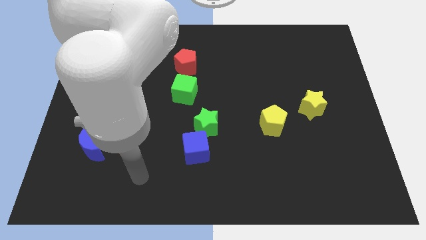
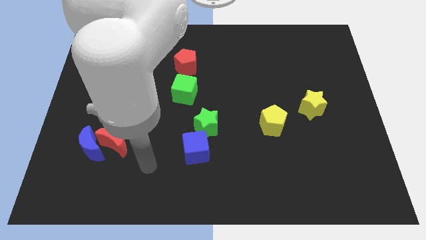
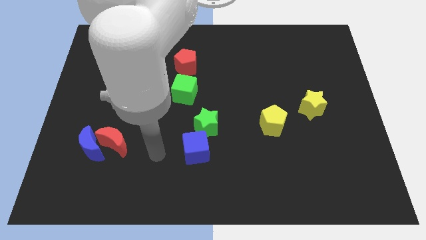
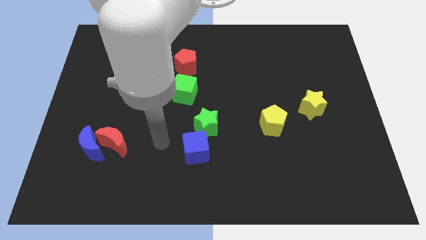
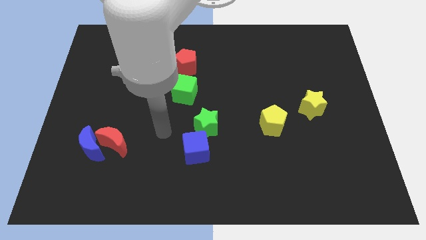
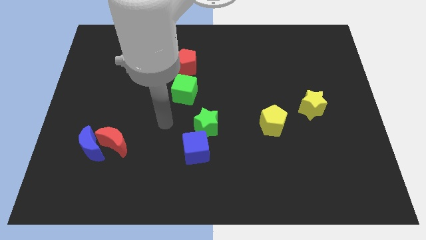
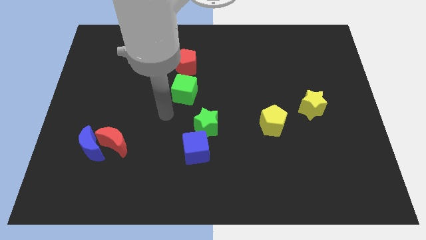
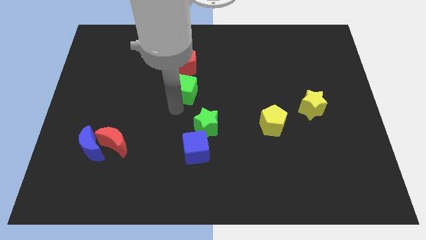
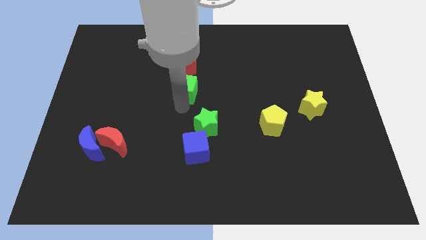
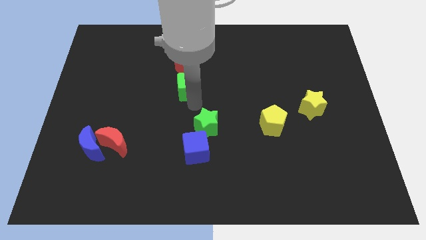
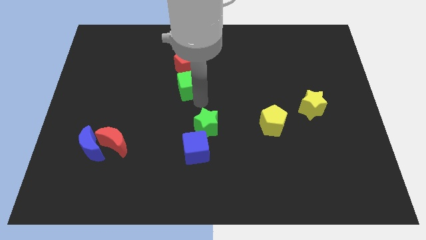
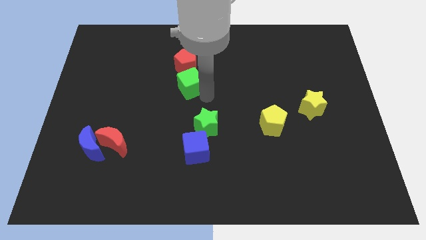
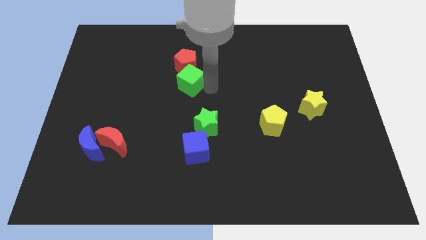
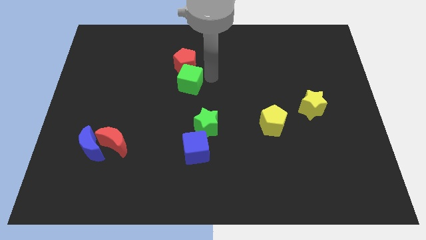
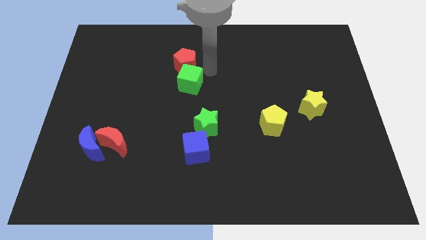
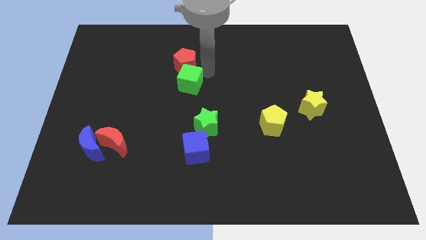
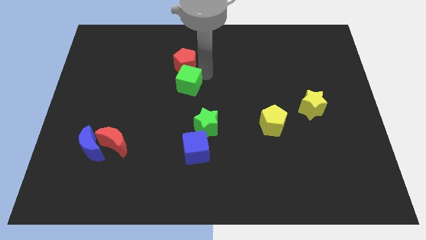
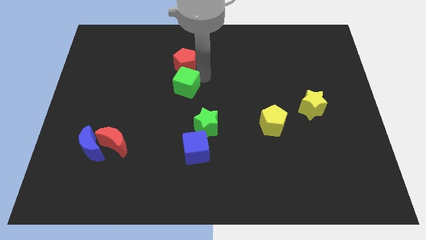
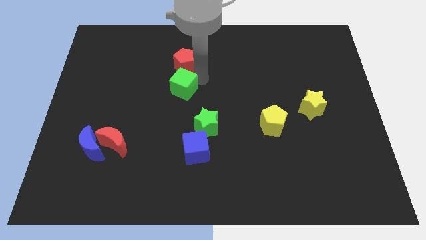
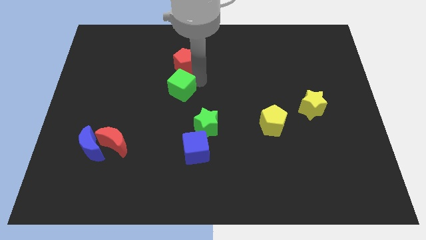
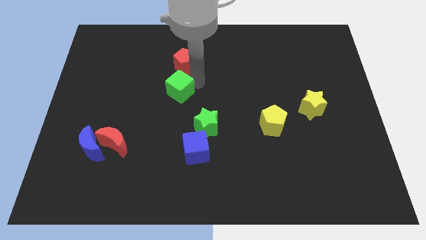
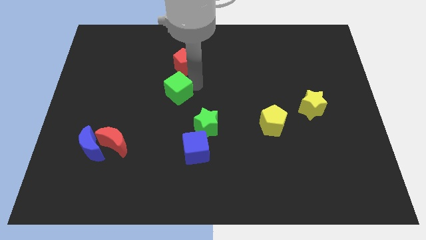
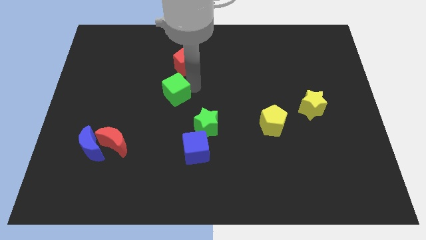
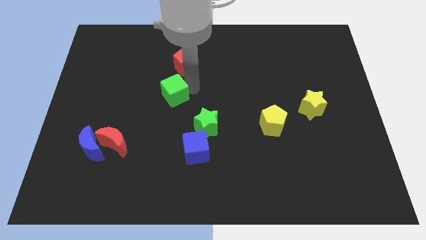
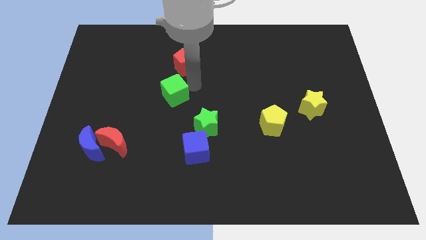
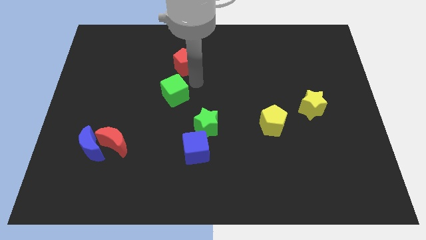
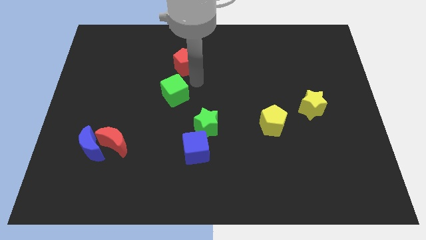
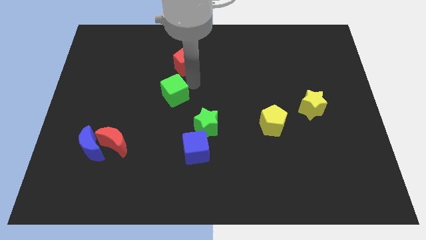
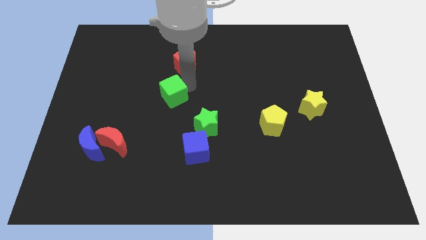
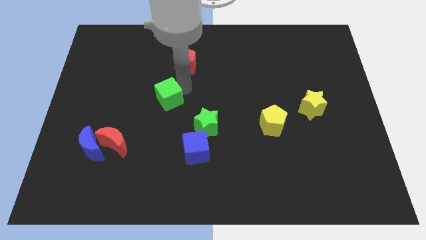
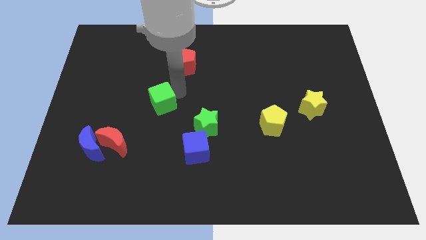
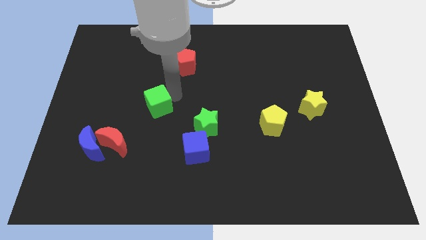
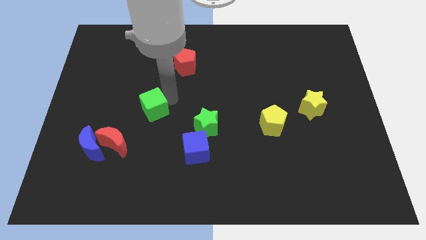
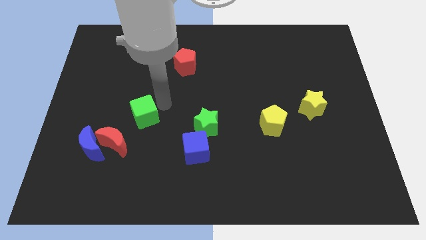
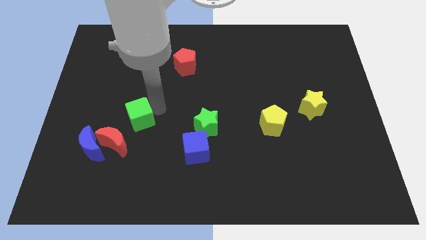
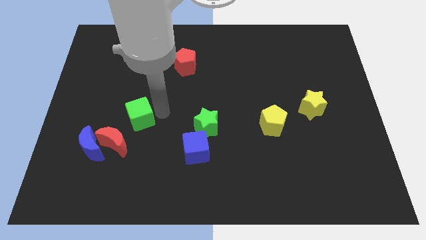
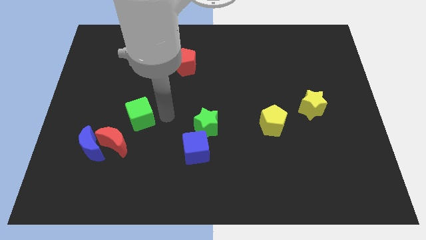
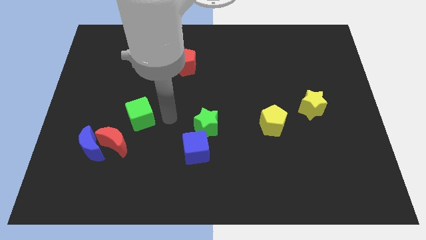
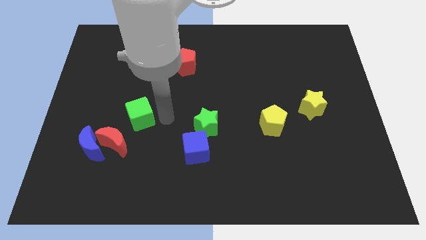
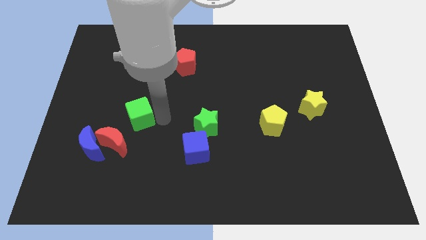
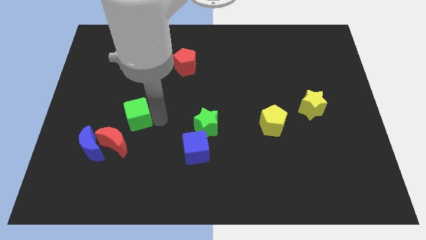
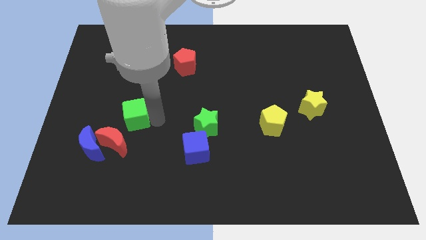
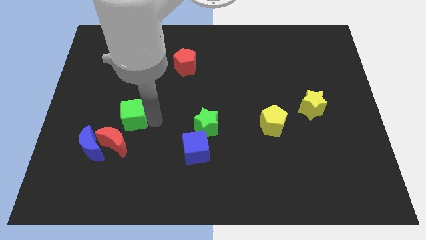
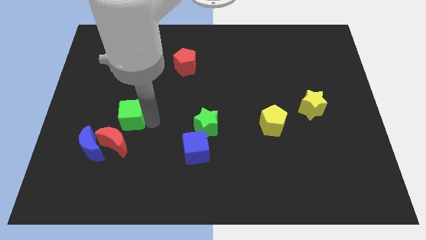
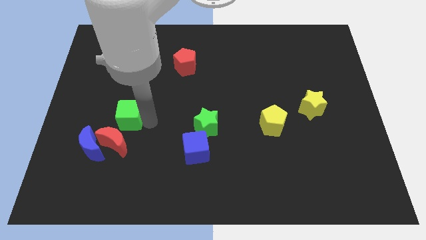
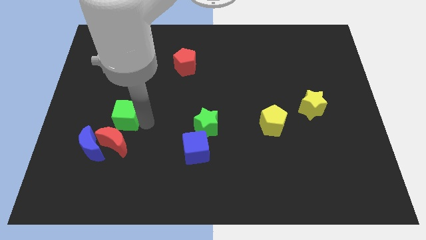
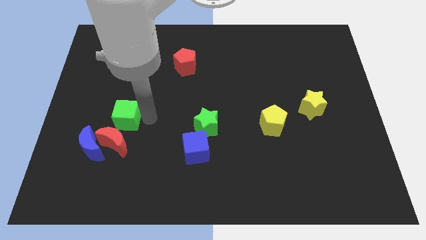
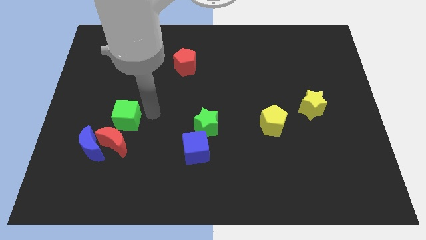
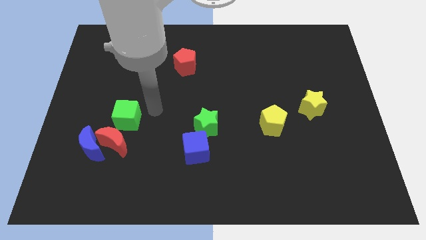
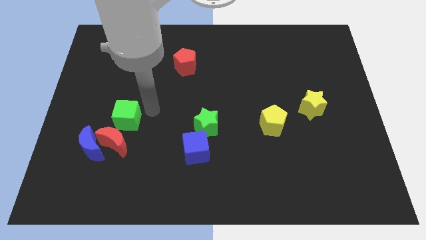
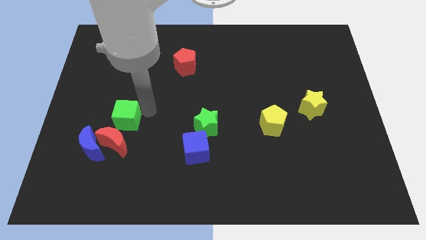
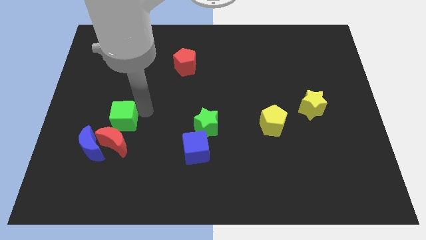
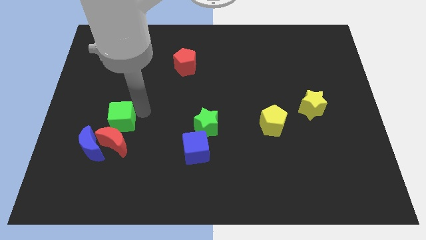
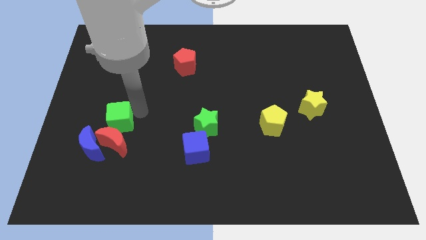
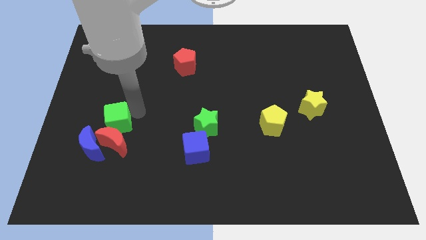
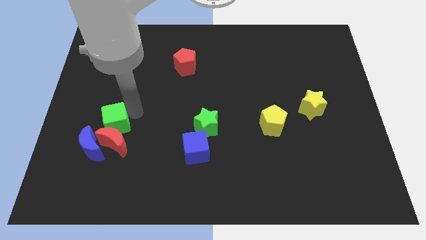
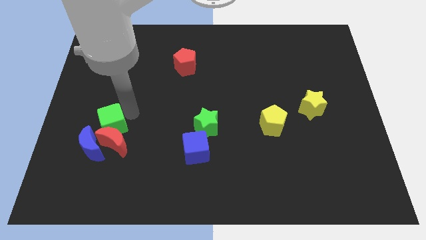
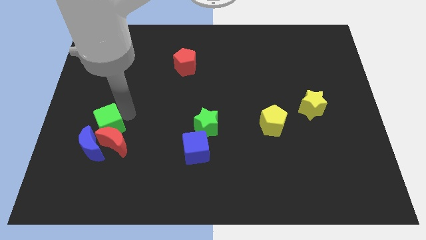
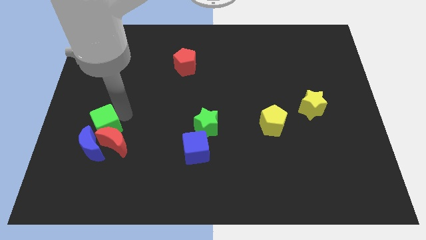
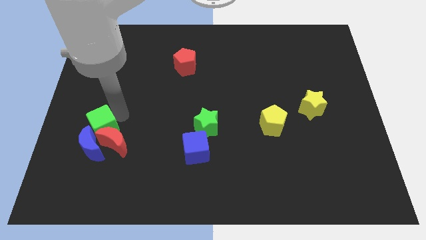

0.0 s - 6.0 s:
move the green cube to the blue moon
